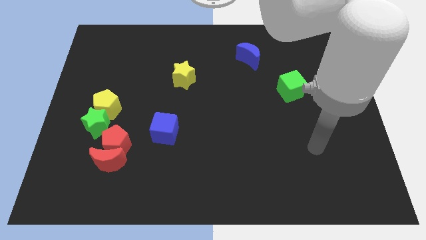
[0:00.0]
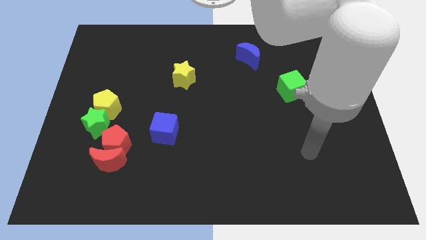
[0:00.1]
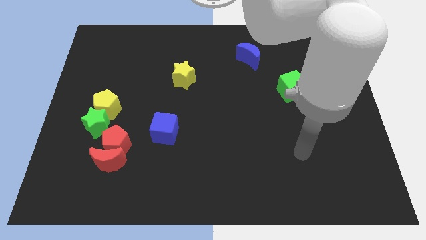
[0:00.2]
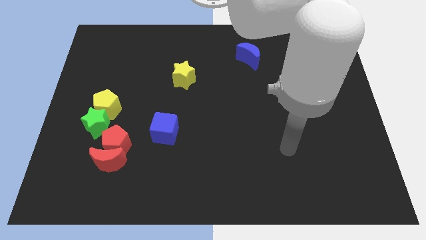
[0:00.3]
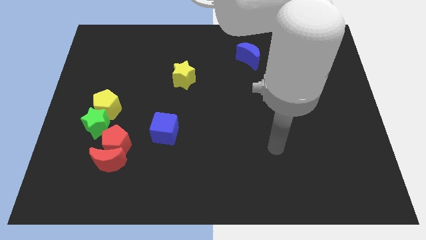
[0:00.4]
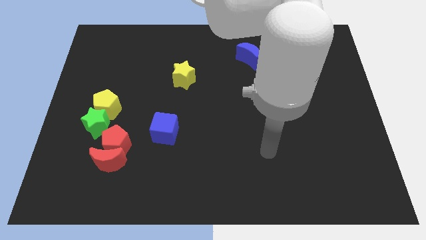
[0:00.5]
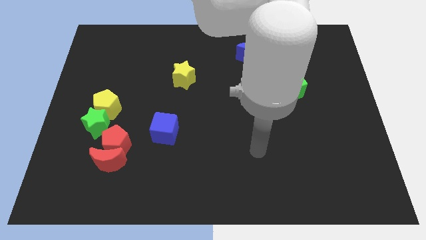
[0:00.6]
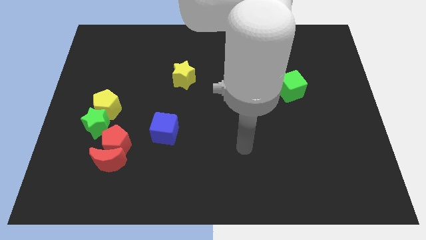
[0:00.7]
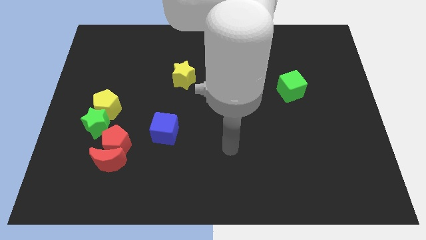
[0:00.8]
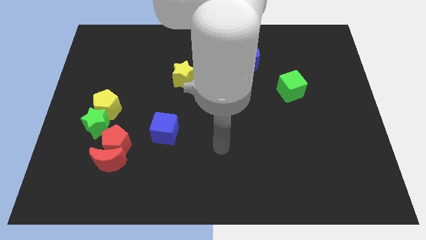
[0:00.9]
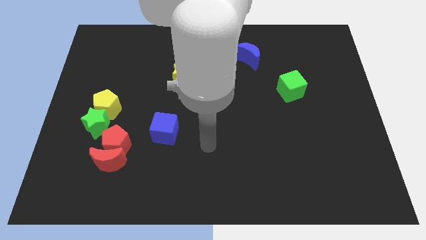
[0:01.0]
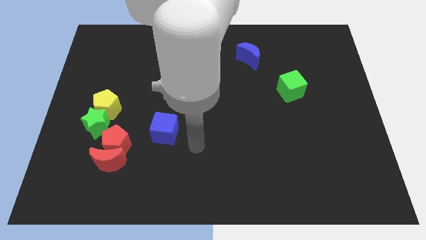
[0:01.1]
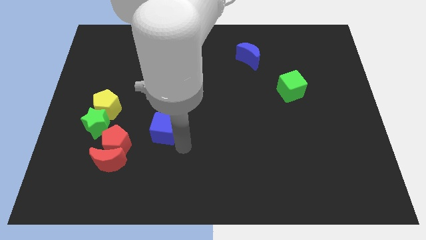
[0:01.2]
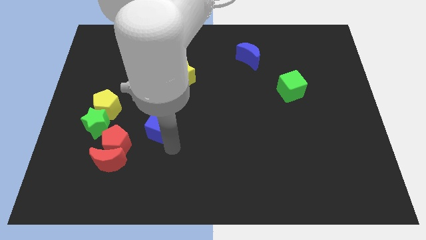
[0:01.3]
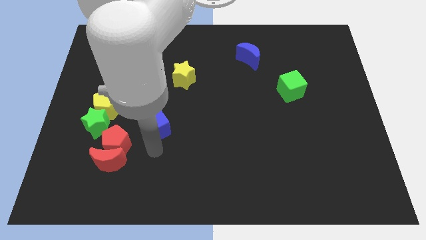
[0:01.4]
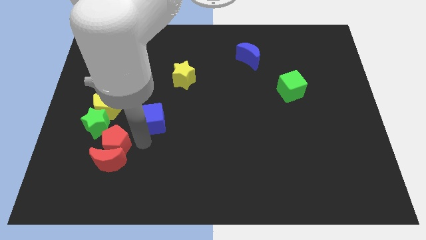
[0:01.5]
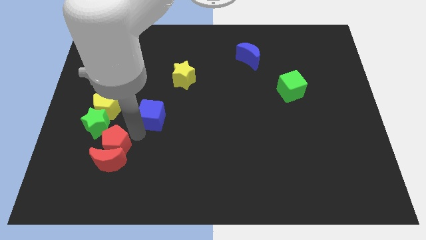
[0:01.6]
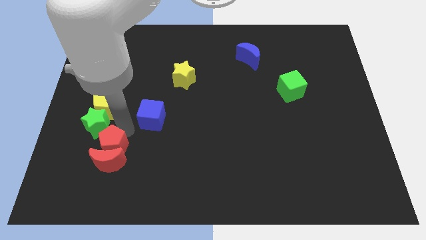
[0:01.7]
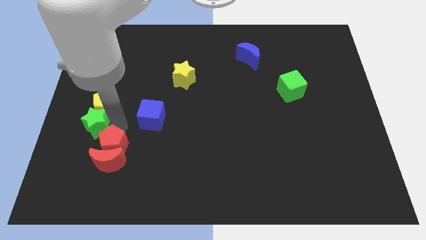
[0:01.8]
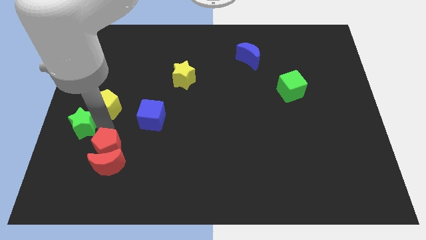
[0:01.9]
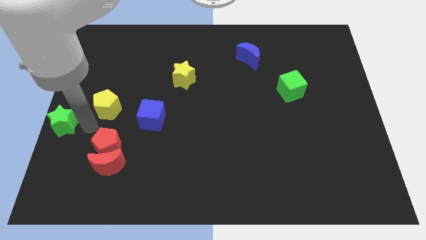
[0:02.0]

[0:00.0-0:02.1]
pull the yellow pentagon apart from the green star

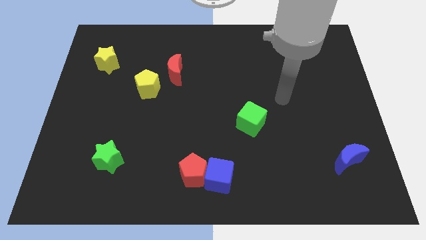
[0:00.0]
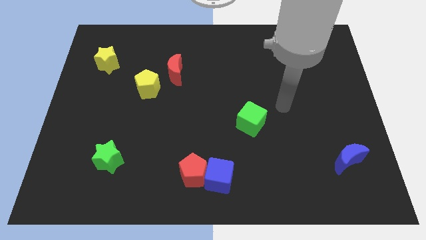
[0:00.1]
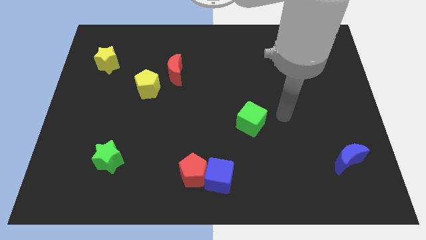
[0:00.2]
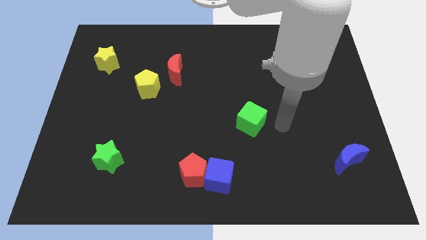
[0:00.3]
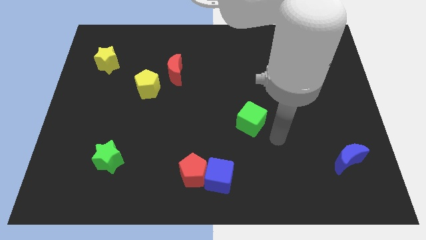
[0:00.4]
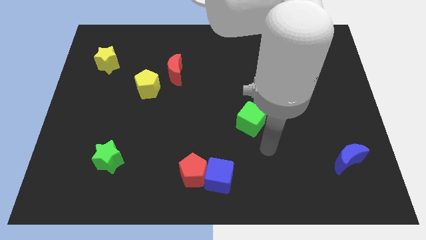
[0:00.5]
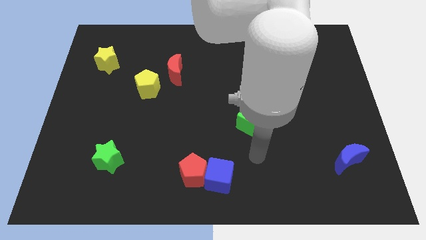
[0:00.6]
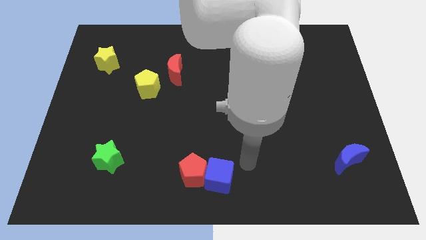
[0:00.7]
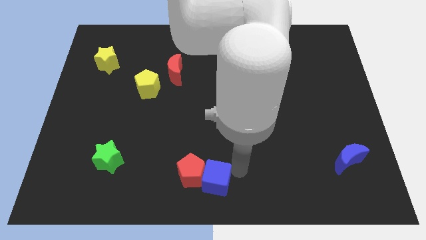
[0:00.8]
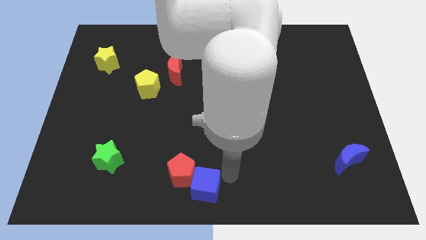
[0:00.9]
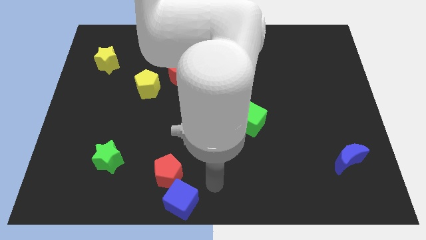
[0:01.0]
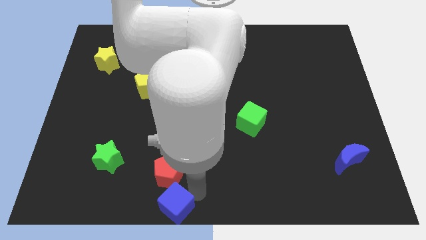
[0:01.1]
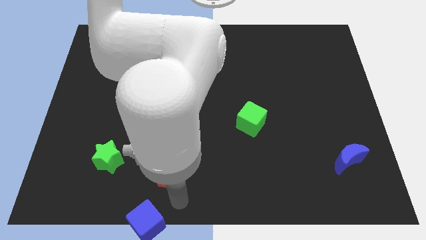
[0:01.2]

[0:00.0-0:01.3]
pull the red pentagon apart from the blue cube

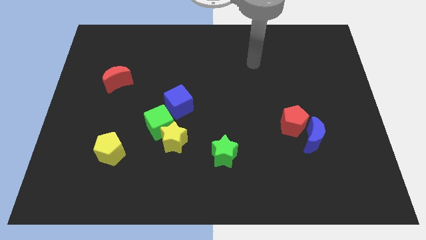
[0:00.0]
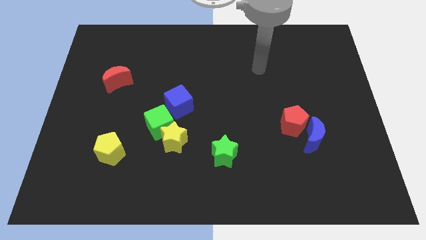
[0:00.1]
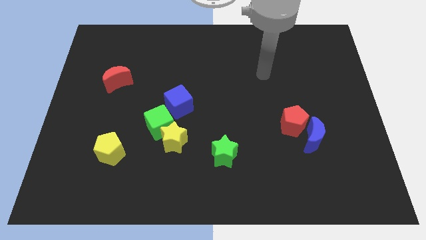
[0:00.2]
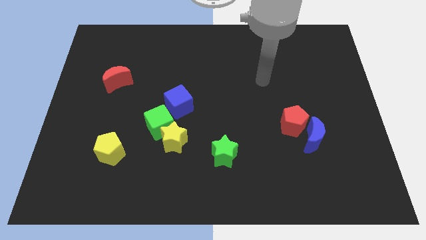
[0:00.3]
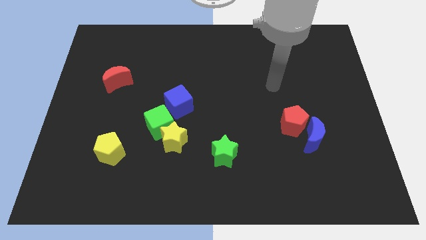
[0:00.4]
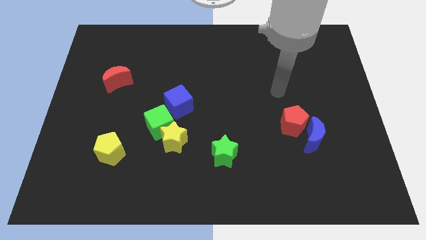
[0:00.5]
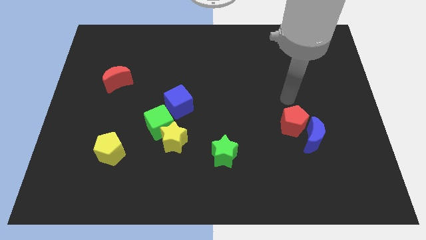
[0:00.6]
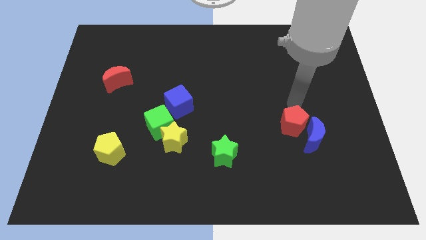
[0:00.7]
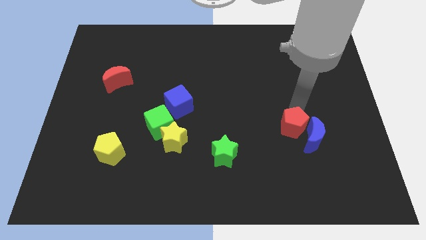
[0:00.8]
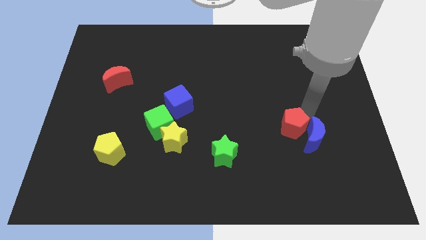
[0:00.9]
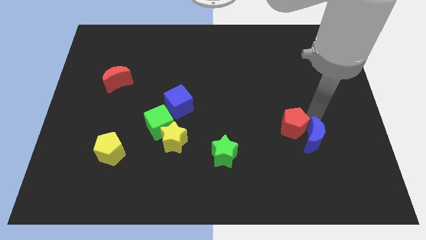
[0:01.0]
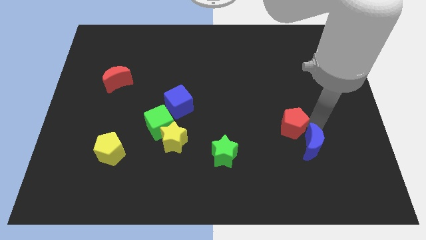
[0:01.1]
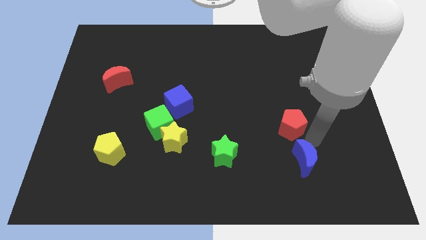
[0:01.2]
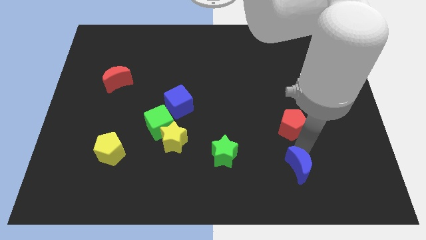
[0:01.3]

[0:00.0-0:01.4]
move the red pentagon away from the blue moon

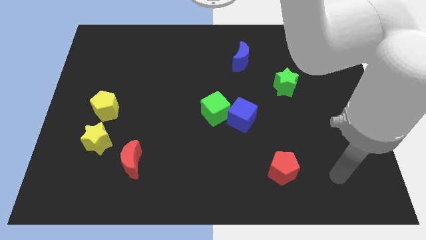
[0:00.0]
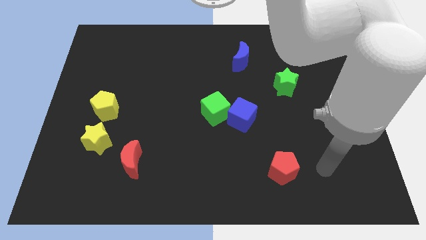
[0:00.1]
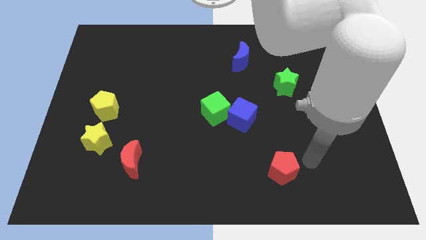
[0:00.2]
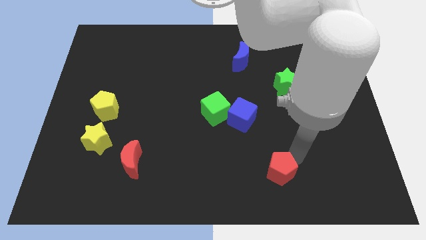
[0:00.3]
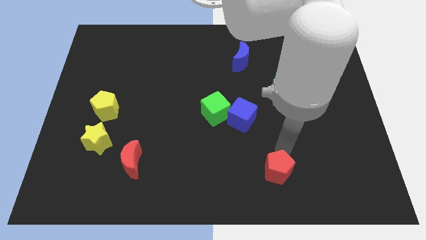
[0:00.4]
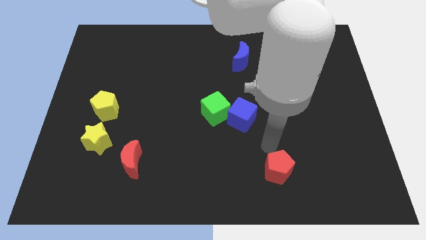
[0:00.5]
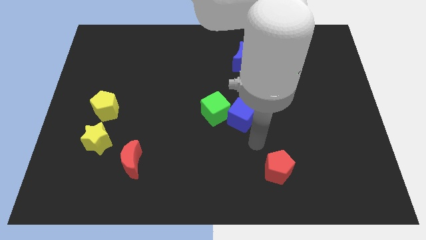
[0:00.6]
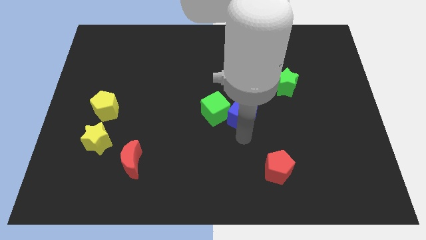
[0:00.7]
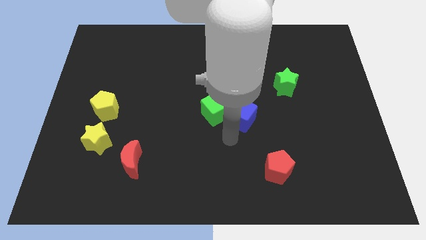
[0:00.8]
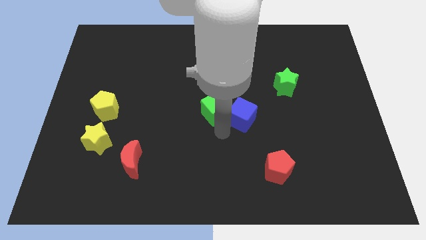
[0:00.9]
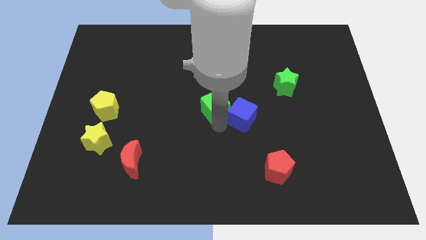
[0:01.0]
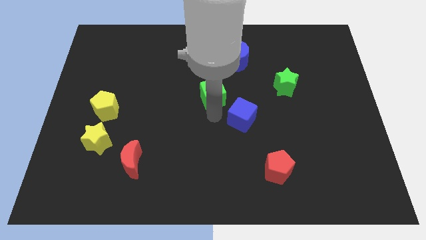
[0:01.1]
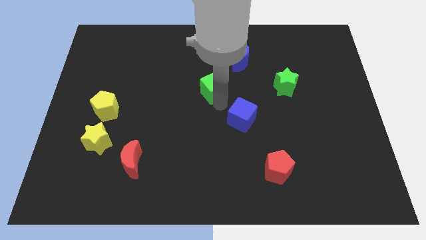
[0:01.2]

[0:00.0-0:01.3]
separate the blue cube from the green cube

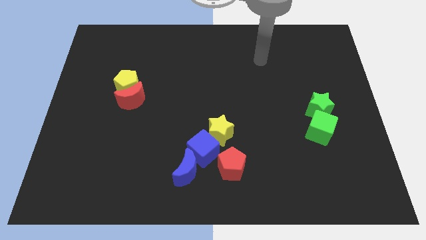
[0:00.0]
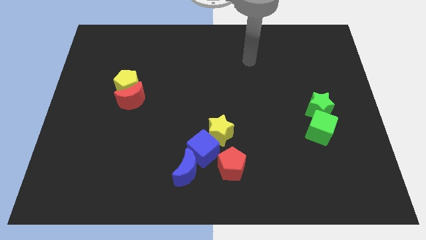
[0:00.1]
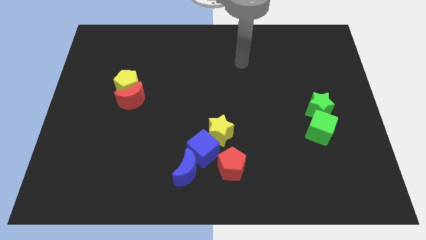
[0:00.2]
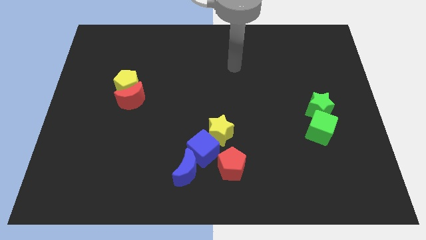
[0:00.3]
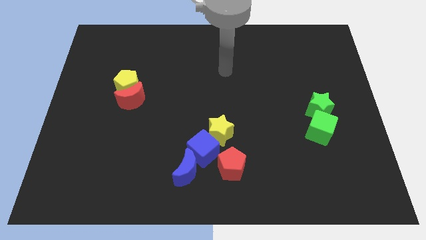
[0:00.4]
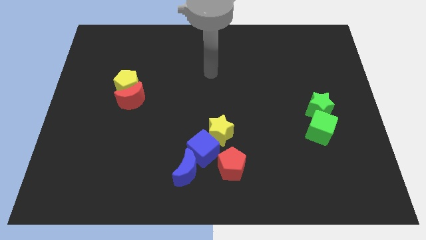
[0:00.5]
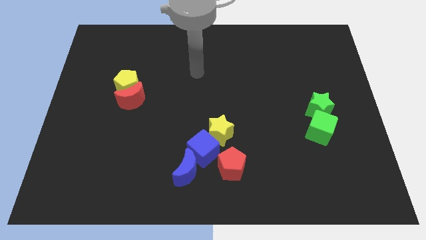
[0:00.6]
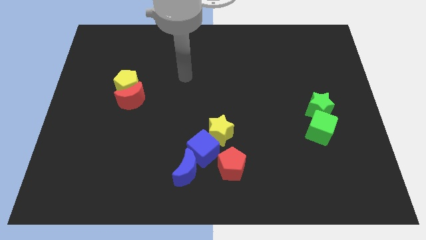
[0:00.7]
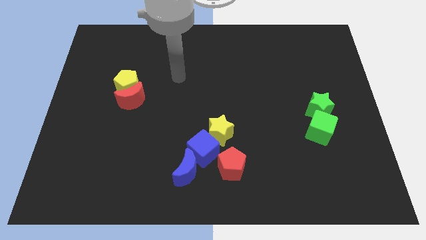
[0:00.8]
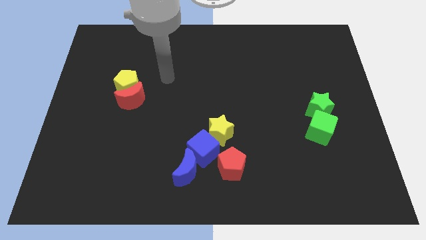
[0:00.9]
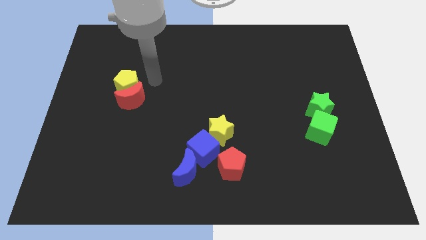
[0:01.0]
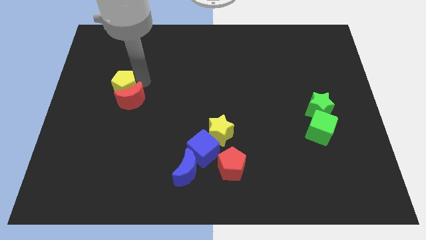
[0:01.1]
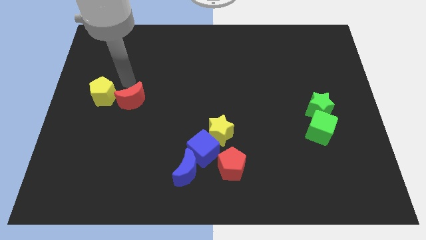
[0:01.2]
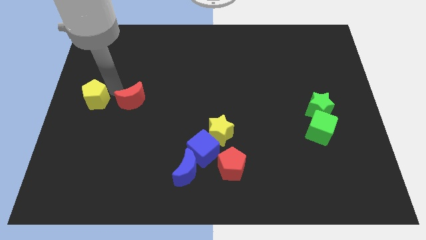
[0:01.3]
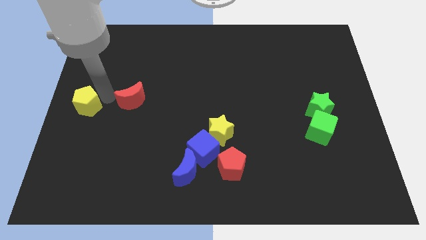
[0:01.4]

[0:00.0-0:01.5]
separate the red moon from the yellow pentagon

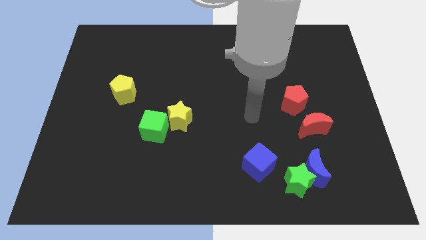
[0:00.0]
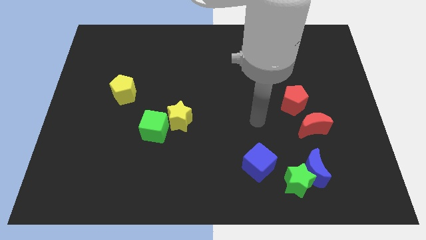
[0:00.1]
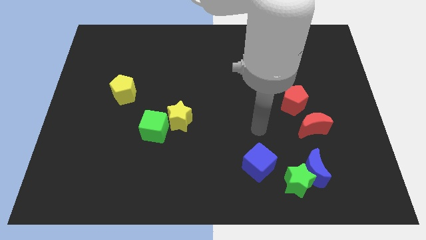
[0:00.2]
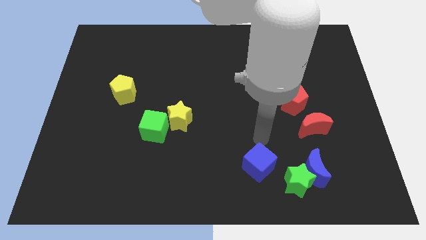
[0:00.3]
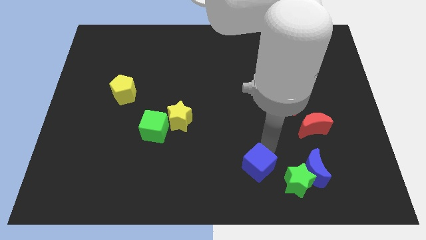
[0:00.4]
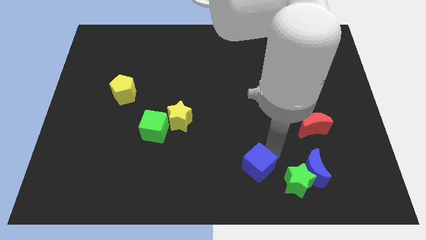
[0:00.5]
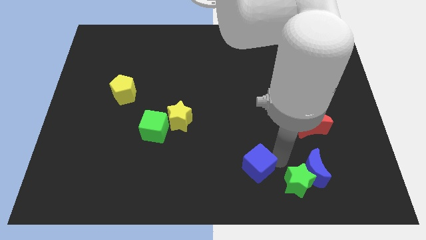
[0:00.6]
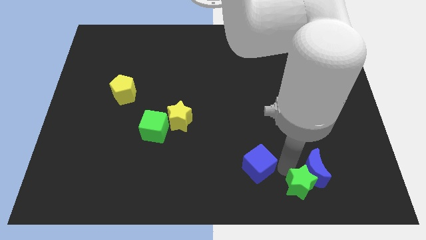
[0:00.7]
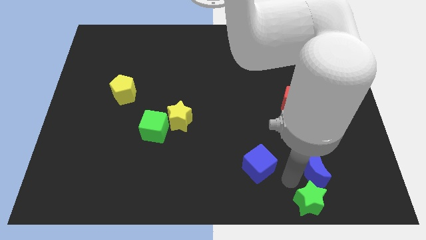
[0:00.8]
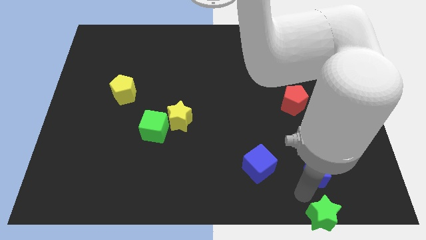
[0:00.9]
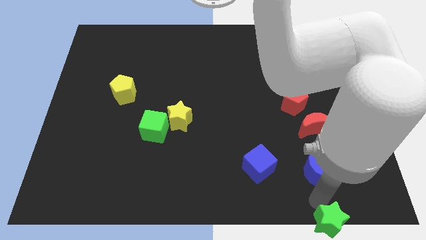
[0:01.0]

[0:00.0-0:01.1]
move the blue moon away from the green star

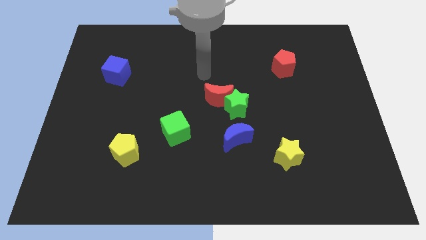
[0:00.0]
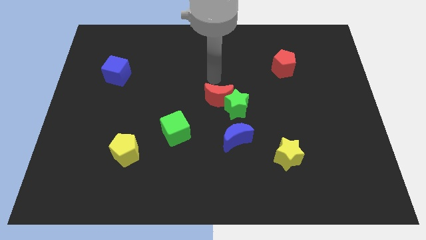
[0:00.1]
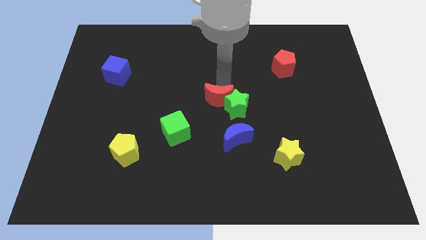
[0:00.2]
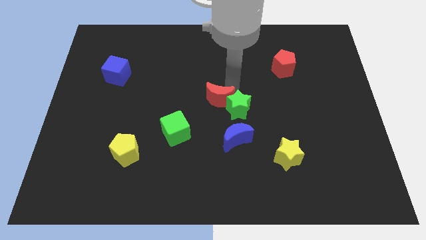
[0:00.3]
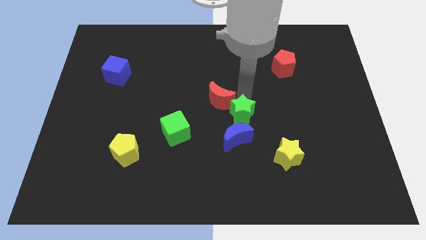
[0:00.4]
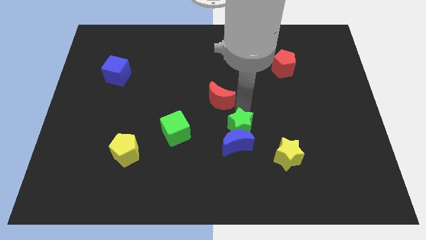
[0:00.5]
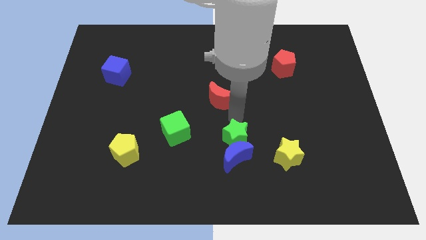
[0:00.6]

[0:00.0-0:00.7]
move the red moon away from the green star

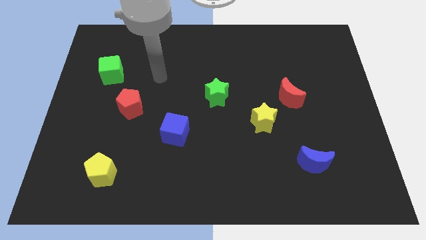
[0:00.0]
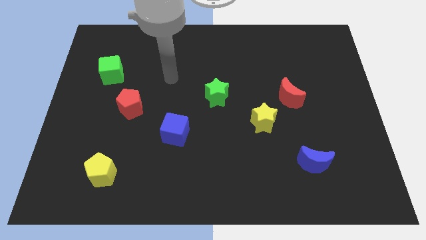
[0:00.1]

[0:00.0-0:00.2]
move the red moon away from the yellow star
